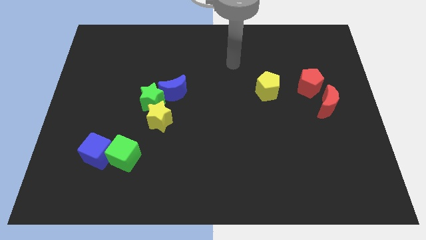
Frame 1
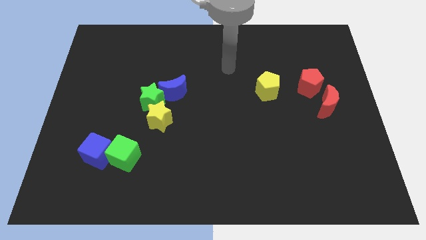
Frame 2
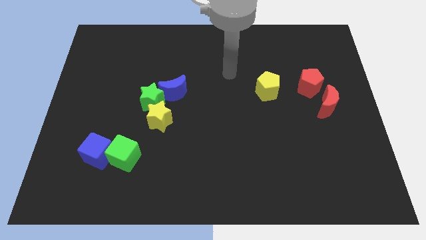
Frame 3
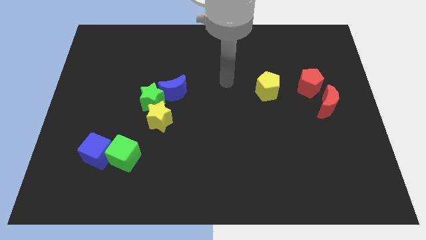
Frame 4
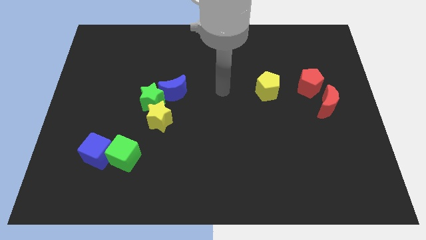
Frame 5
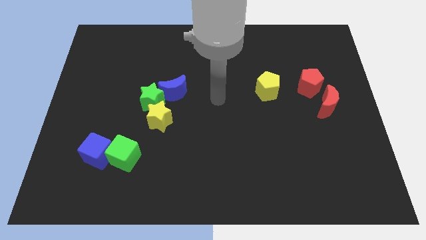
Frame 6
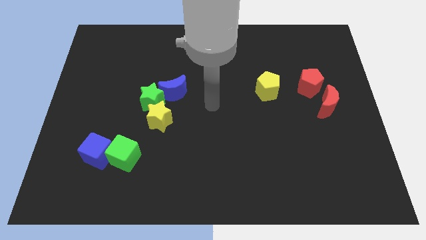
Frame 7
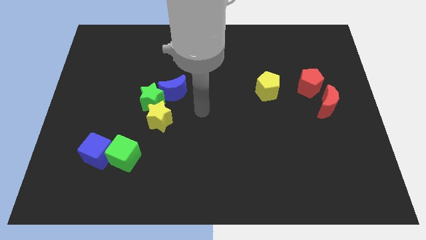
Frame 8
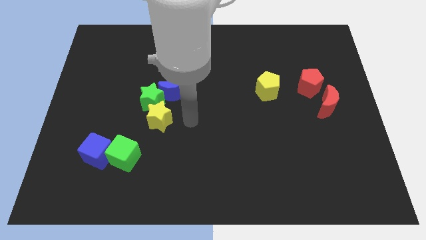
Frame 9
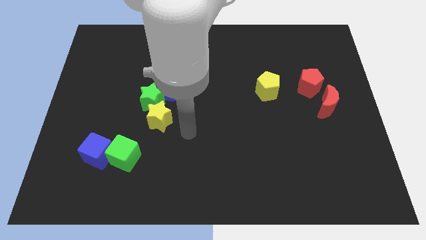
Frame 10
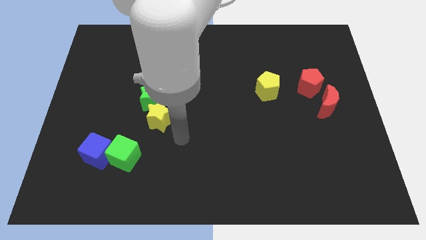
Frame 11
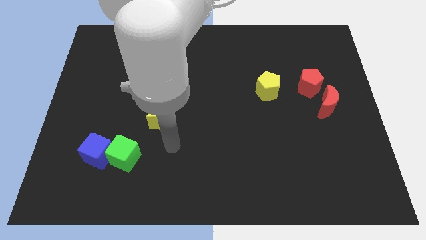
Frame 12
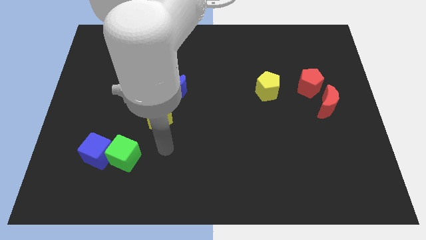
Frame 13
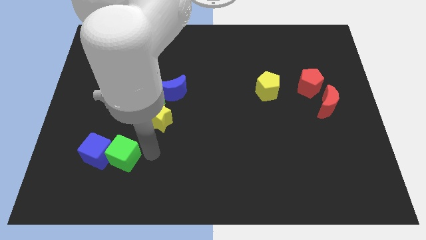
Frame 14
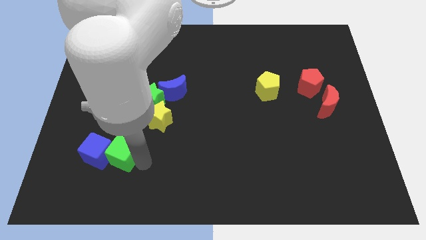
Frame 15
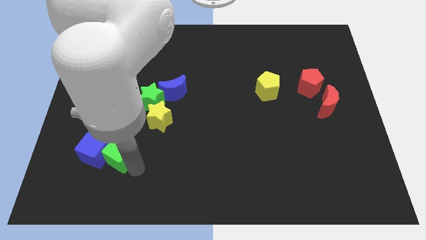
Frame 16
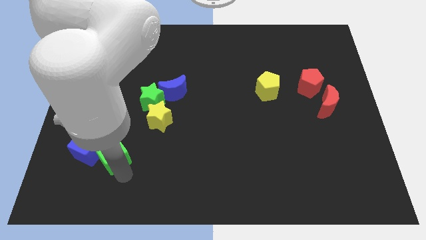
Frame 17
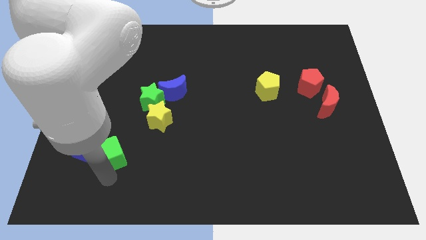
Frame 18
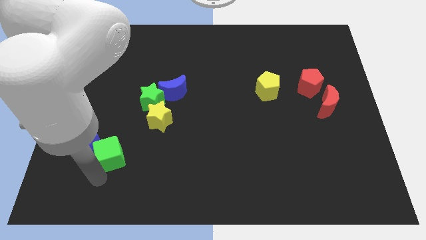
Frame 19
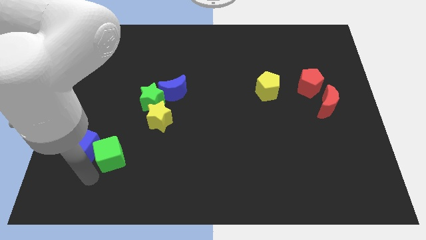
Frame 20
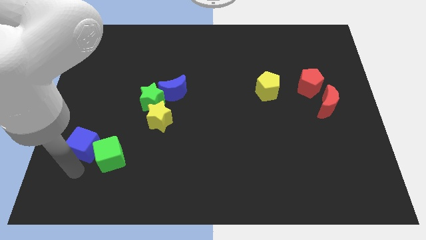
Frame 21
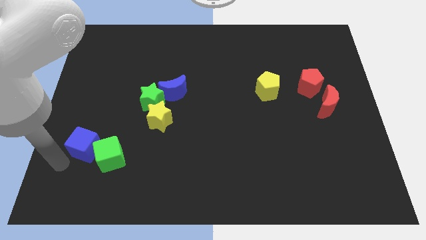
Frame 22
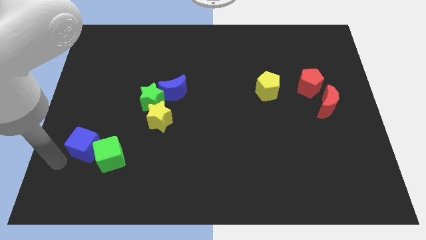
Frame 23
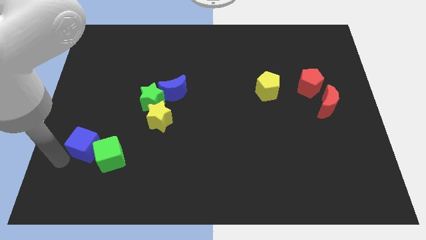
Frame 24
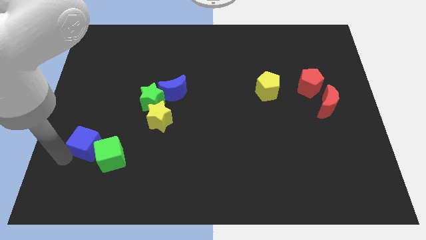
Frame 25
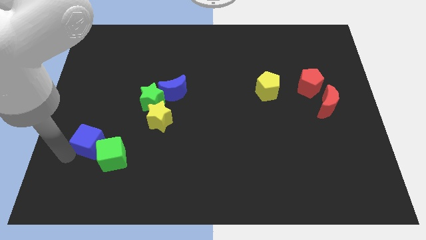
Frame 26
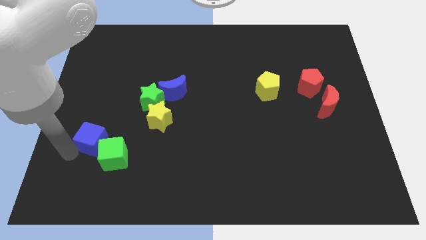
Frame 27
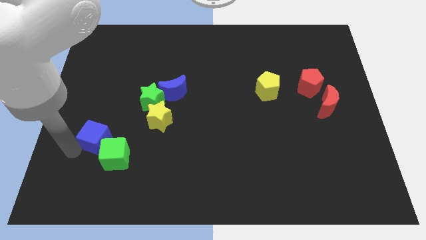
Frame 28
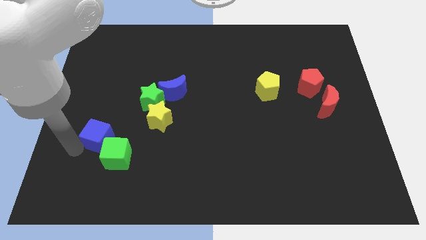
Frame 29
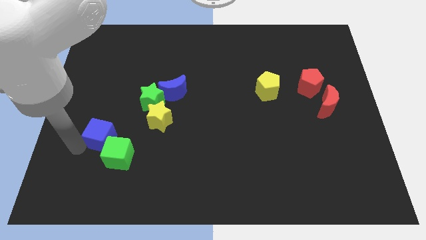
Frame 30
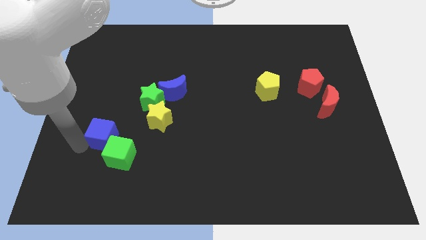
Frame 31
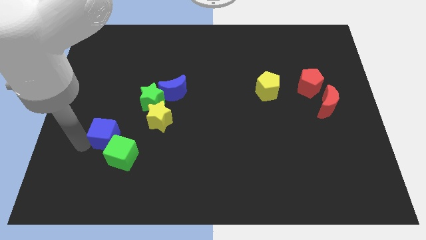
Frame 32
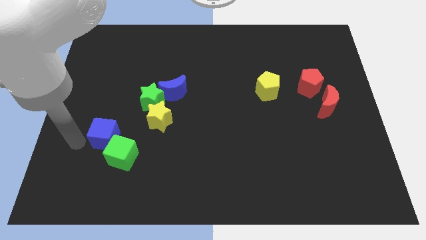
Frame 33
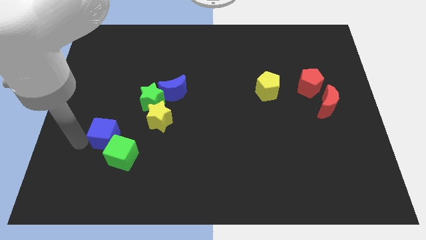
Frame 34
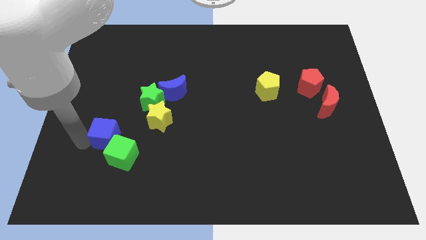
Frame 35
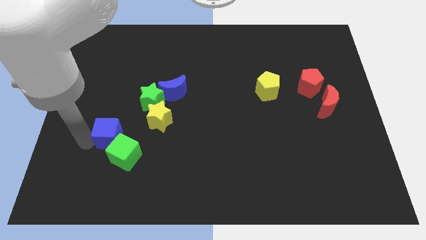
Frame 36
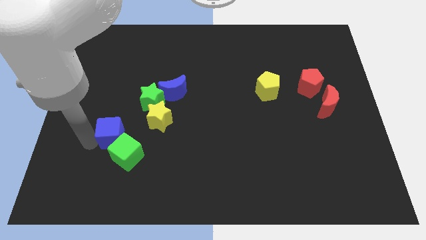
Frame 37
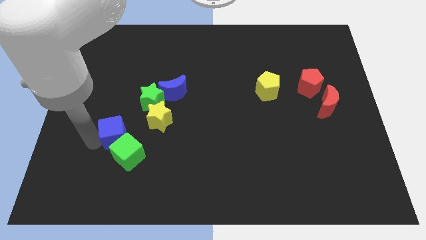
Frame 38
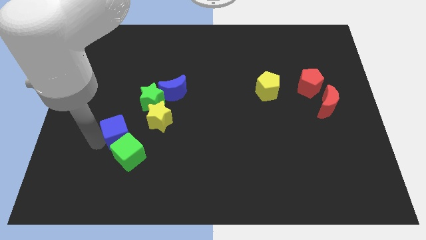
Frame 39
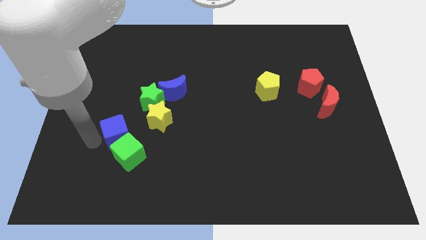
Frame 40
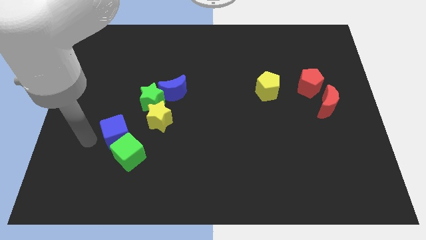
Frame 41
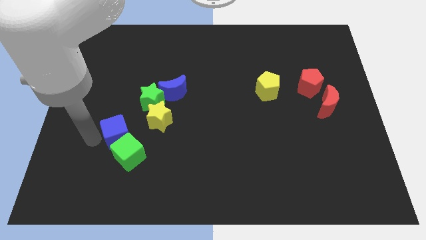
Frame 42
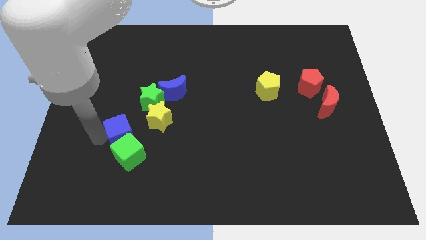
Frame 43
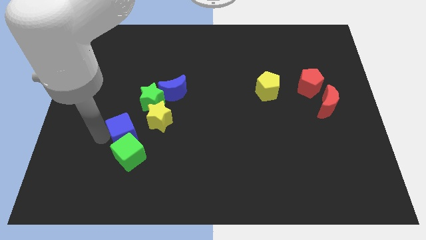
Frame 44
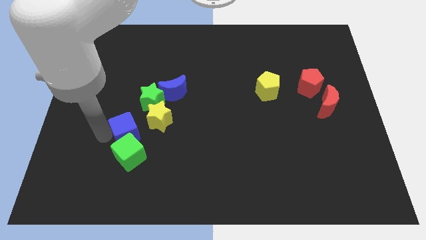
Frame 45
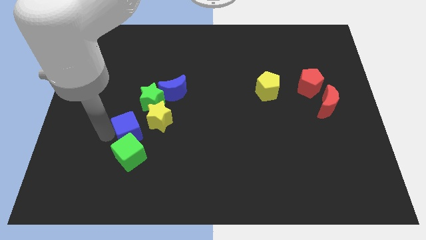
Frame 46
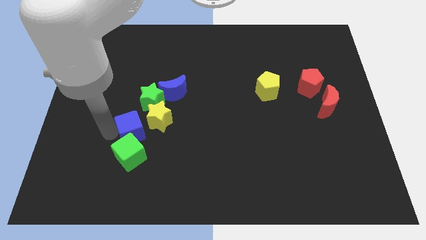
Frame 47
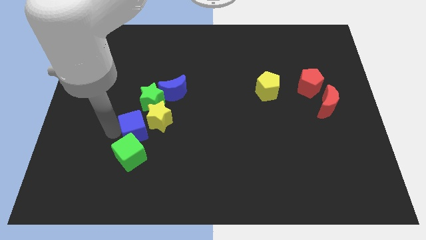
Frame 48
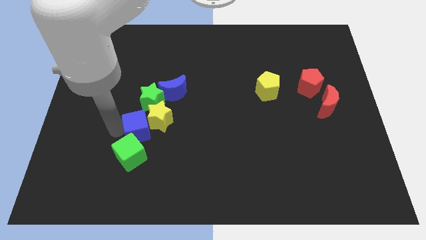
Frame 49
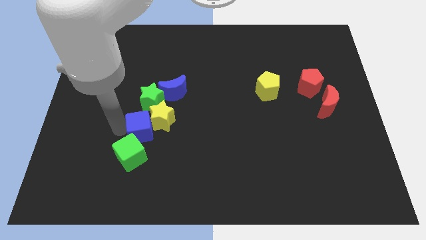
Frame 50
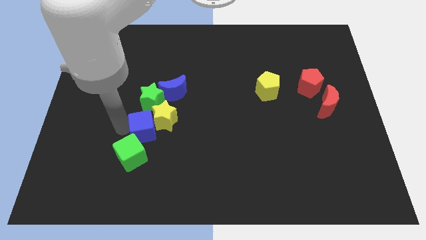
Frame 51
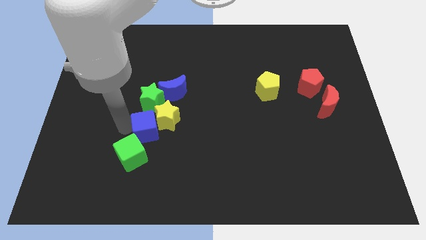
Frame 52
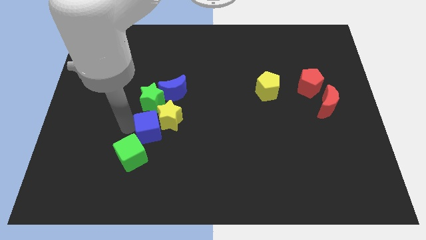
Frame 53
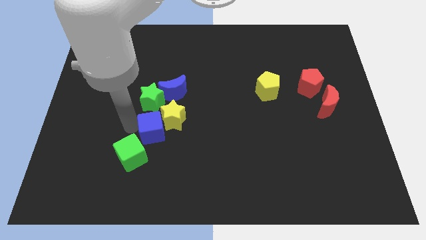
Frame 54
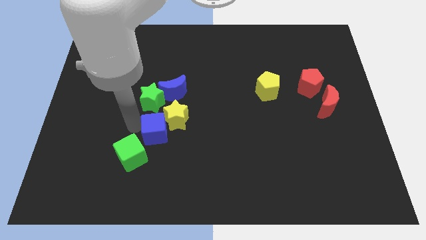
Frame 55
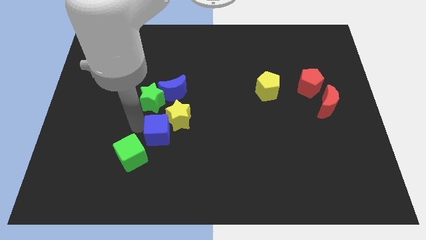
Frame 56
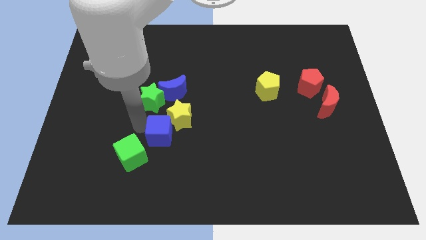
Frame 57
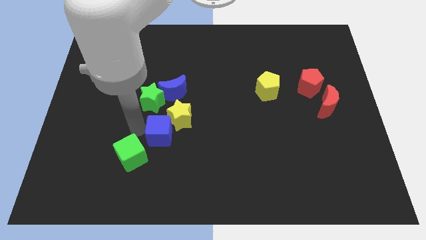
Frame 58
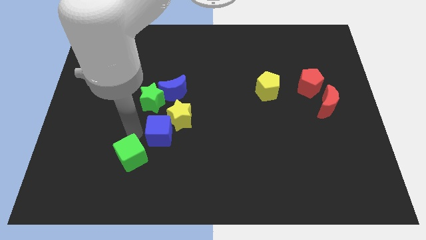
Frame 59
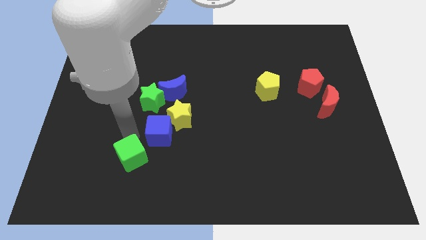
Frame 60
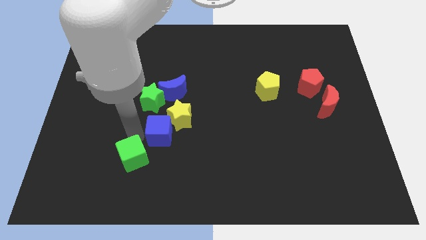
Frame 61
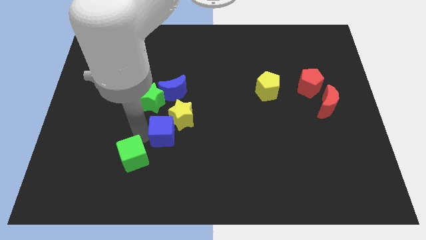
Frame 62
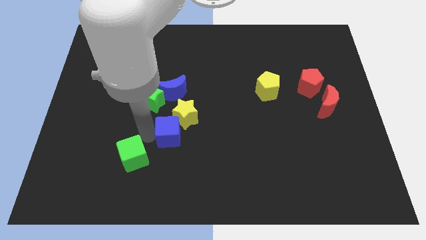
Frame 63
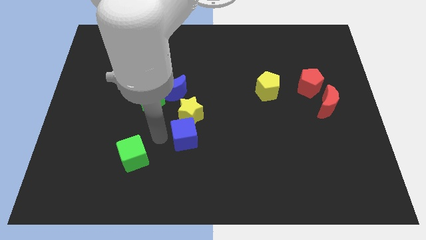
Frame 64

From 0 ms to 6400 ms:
put the blue cube to the middle
